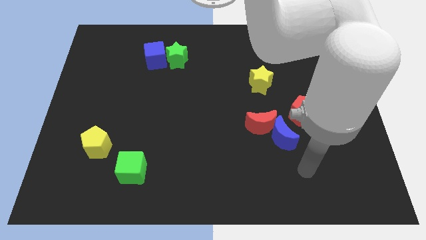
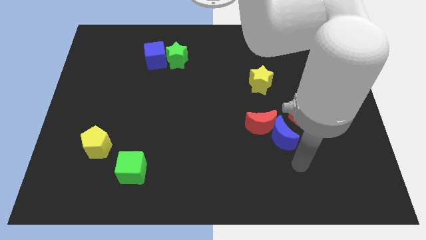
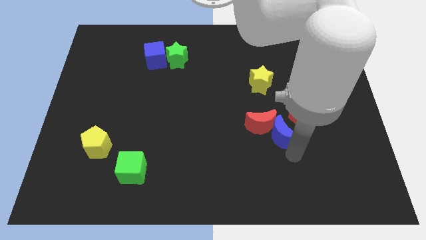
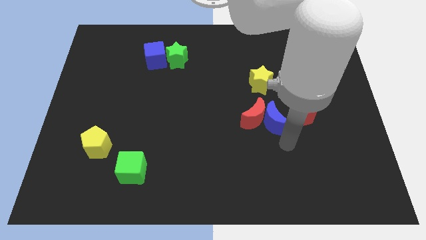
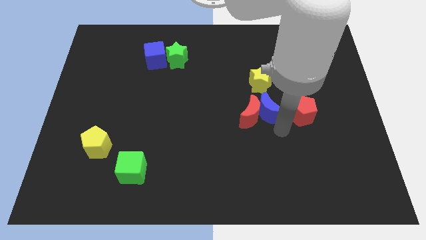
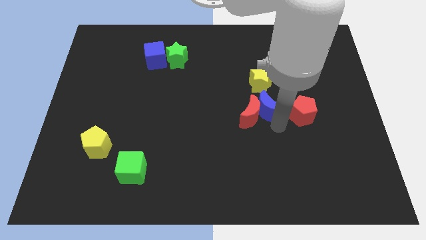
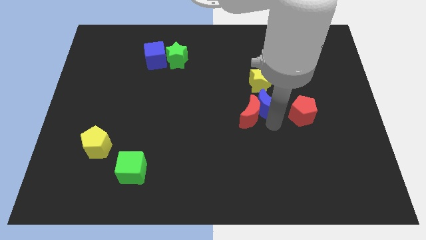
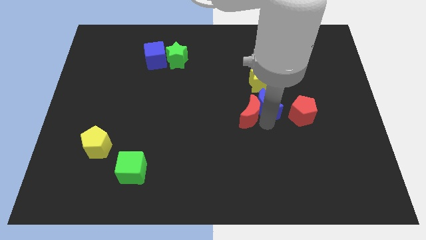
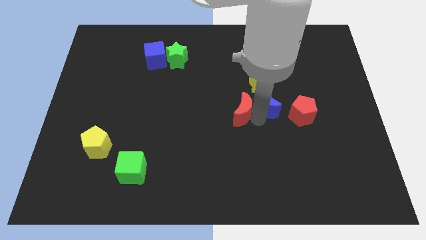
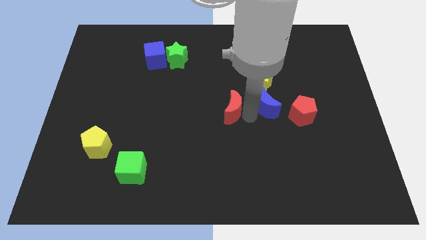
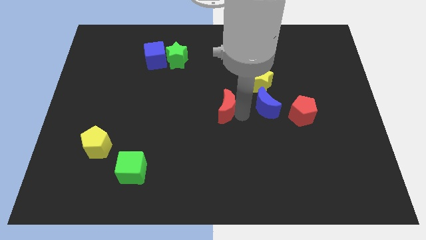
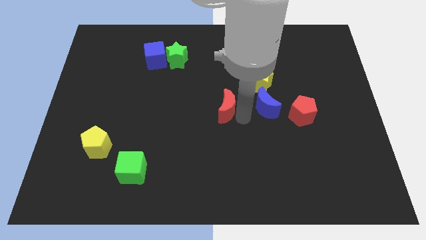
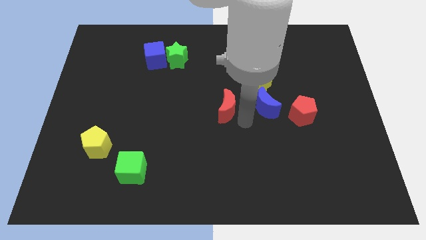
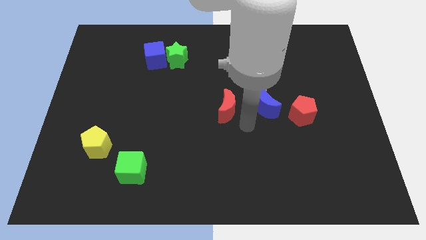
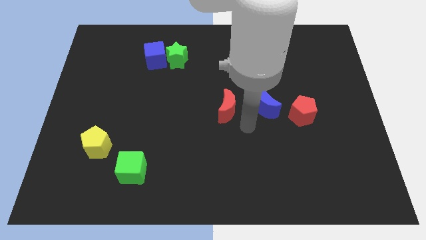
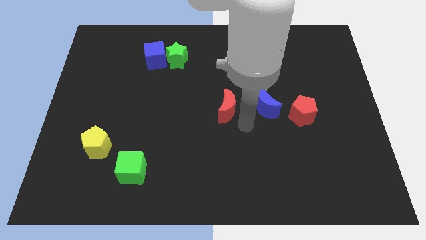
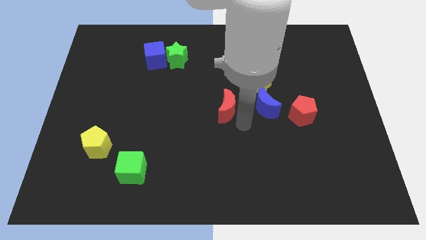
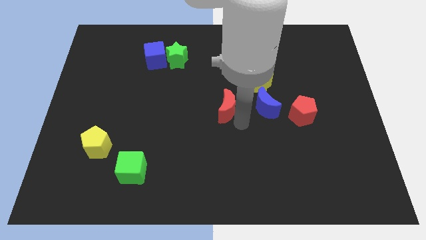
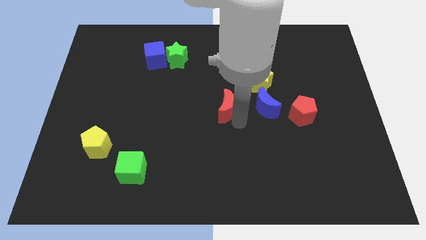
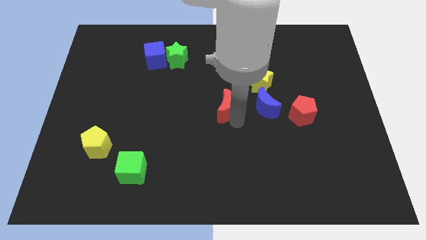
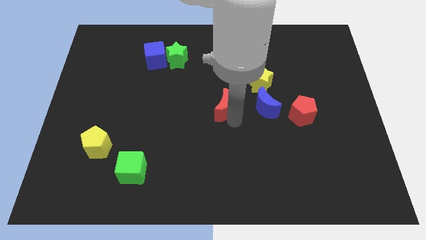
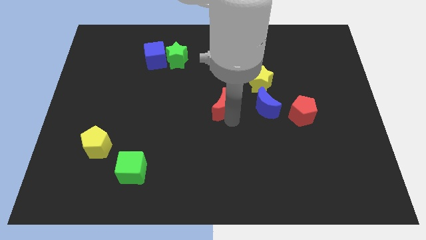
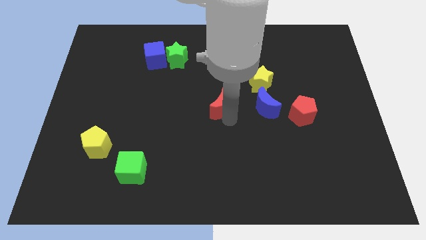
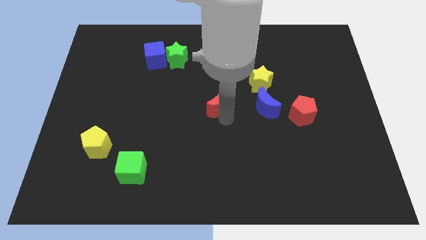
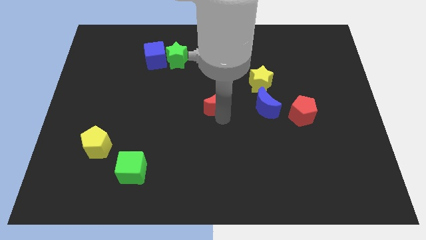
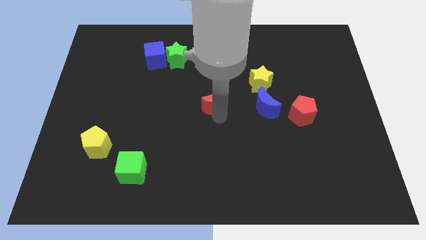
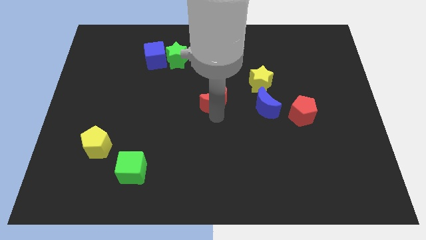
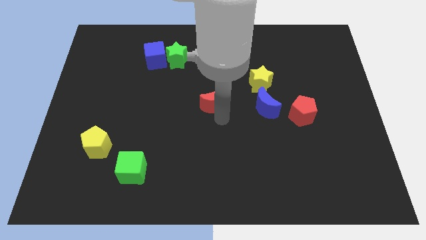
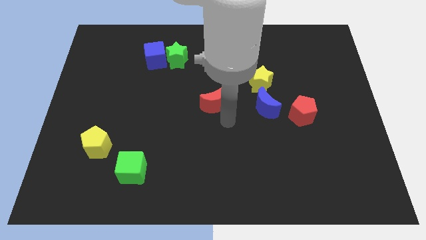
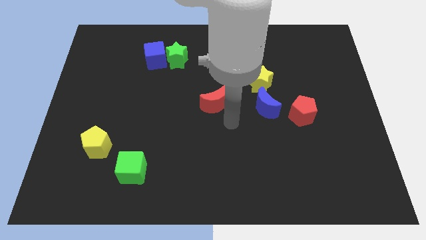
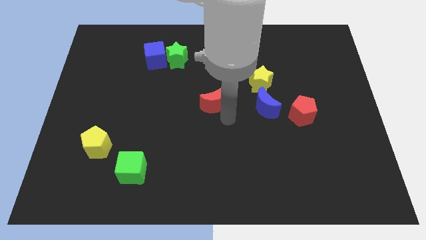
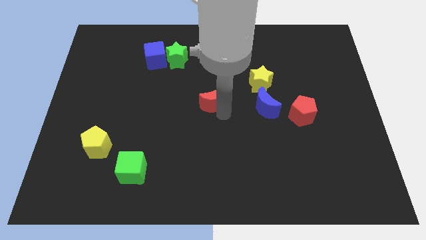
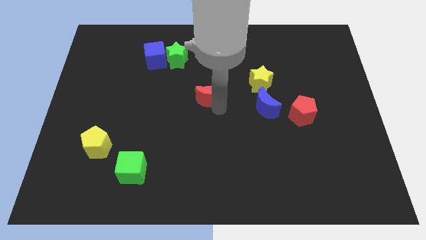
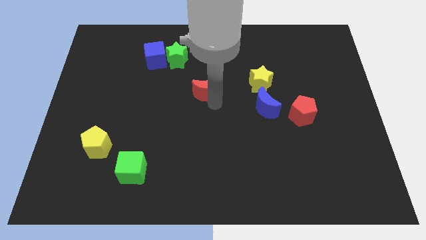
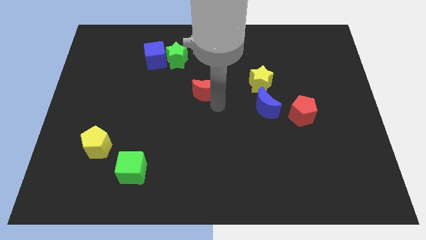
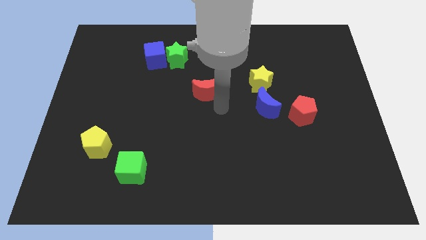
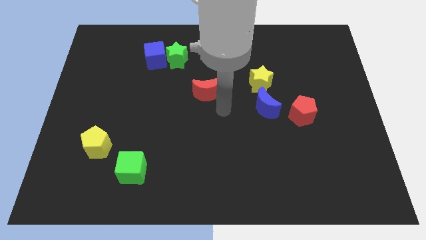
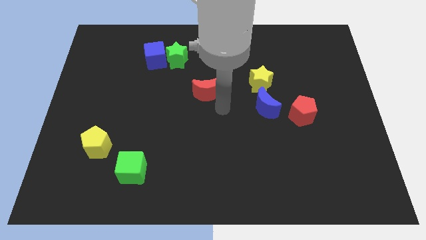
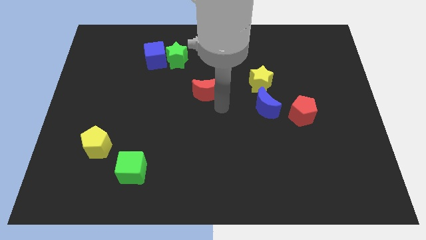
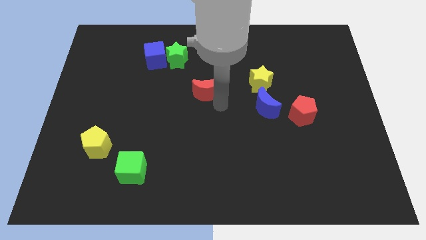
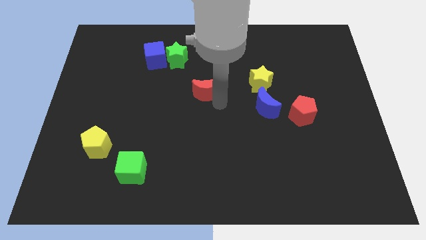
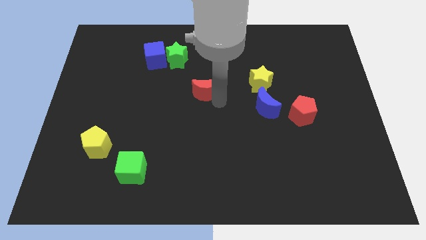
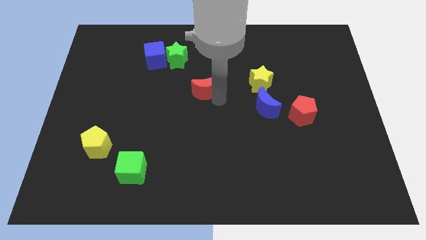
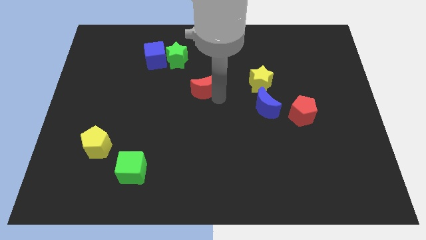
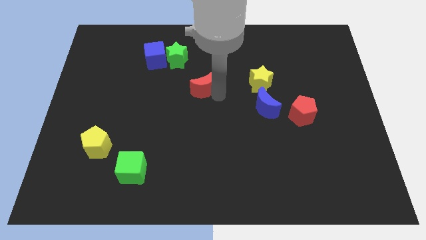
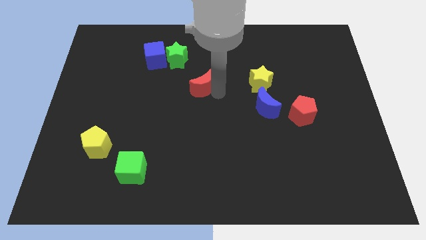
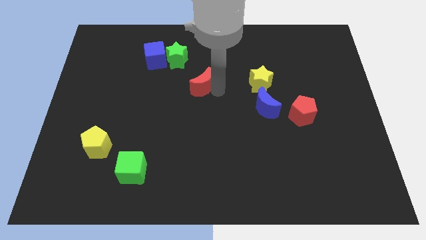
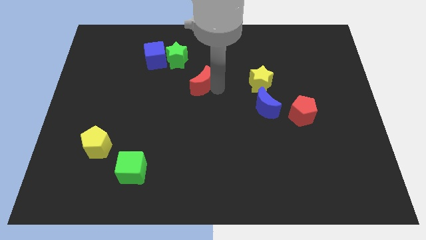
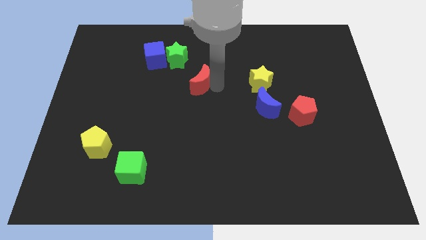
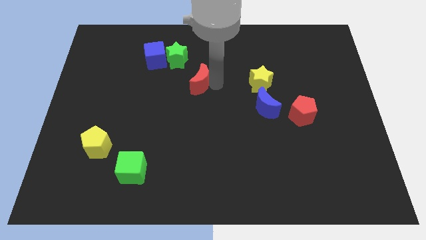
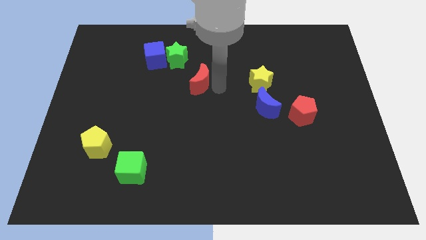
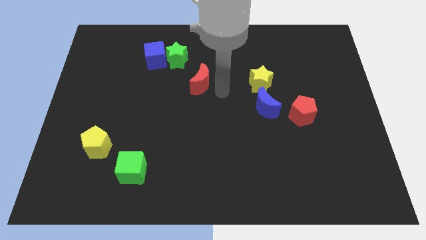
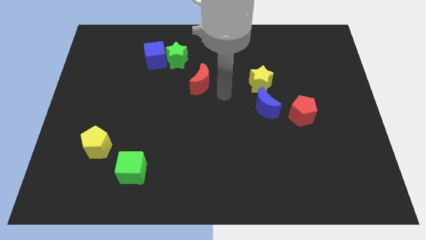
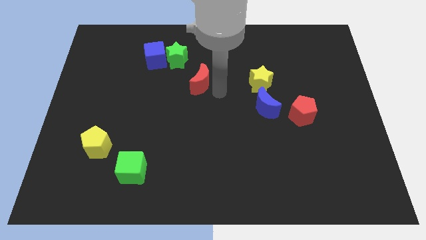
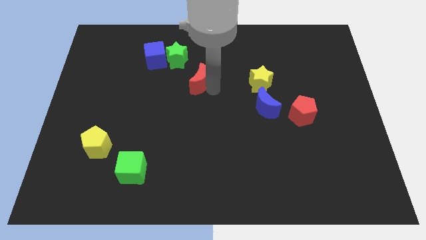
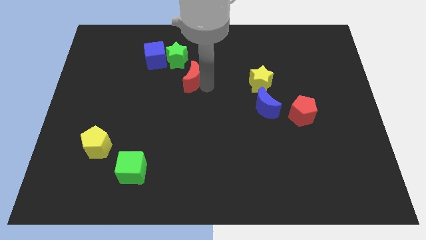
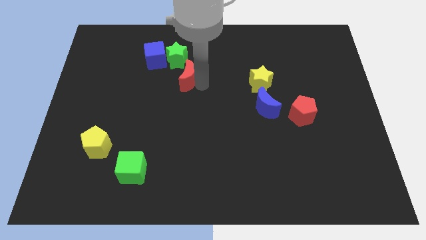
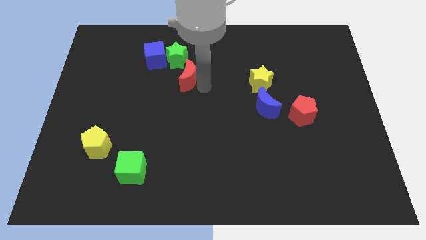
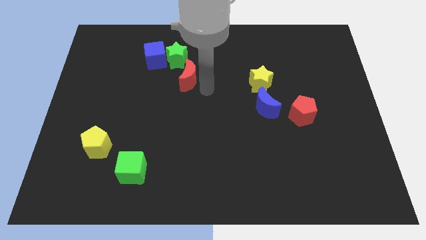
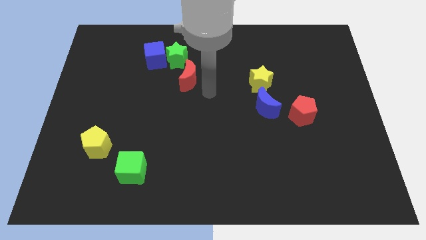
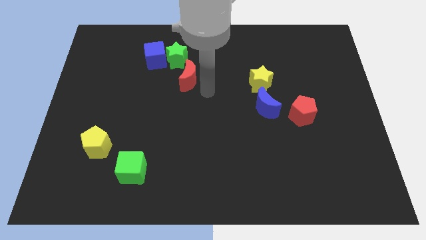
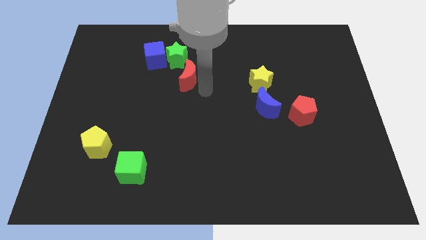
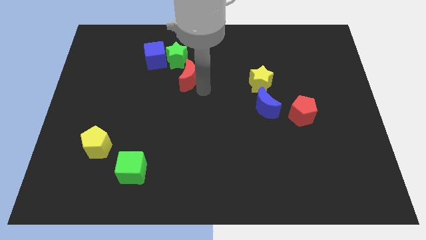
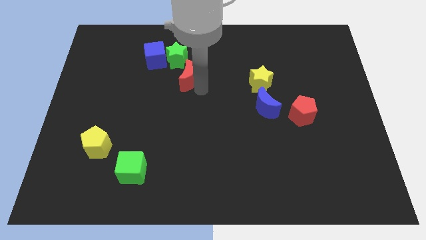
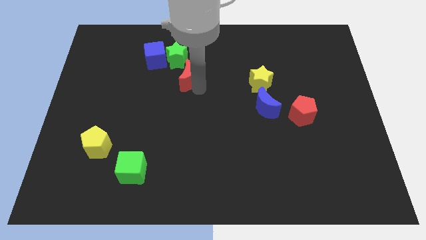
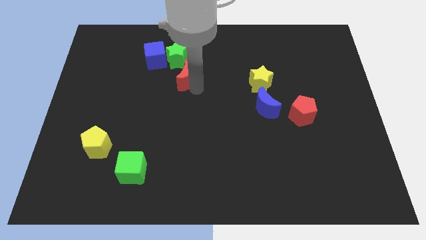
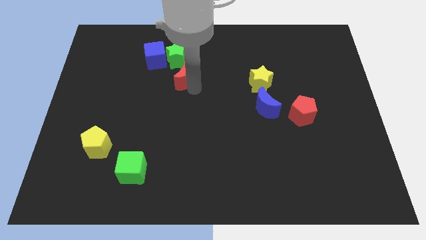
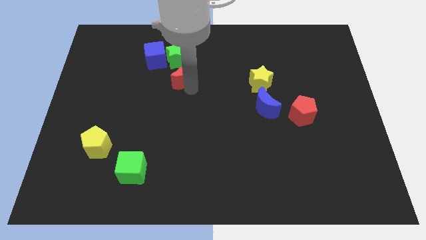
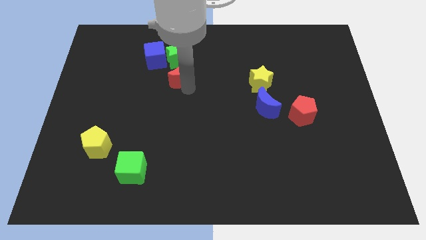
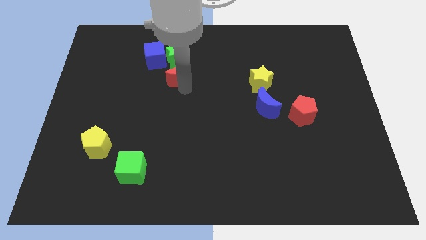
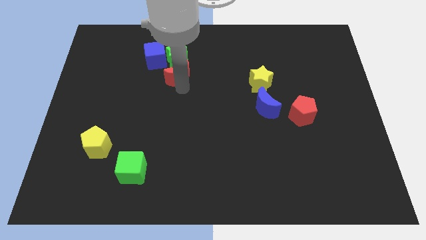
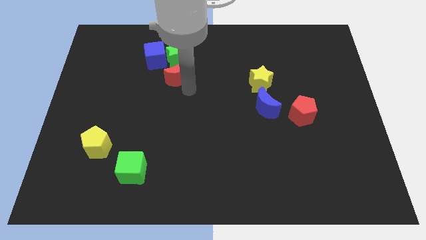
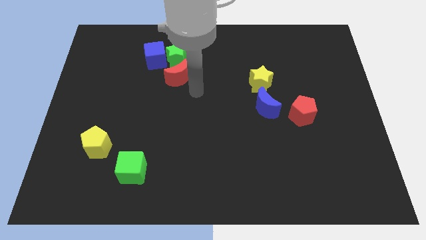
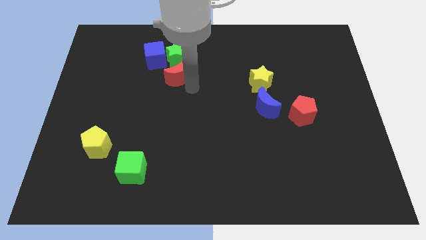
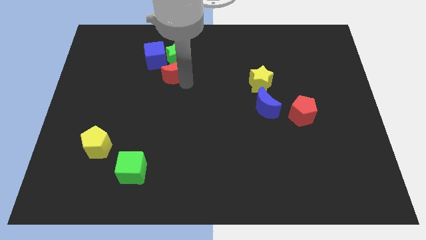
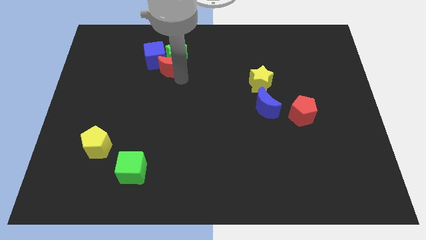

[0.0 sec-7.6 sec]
put the red moon to the blue cube

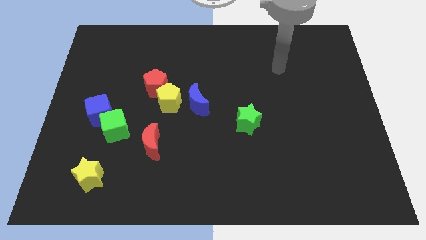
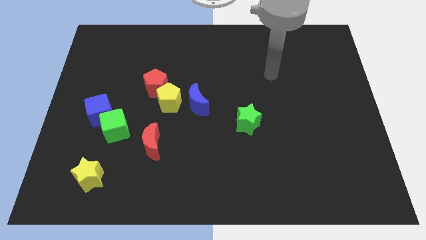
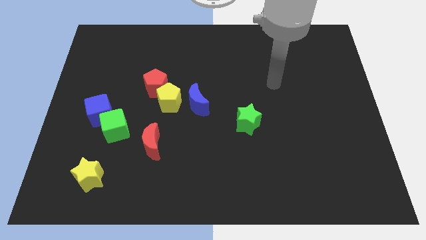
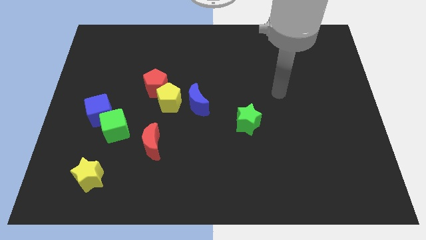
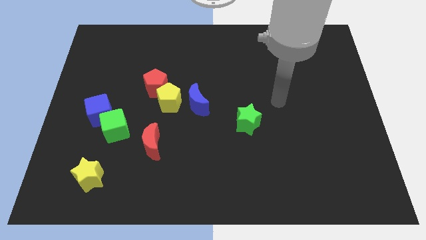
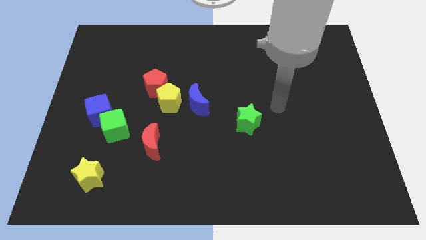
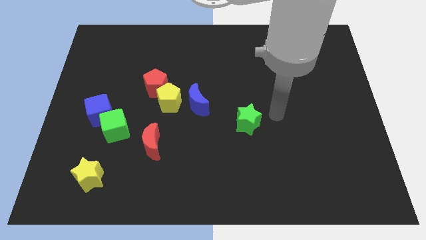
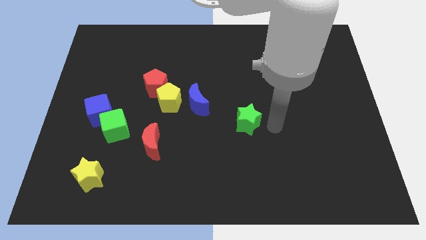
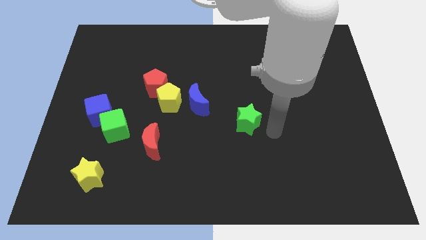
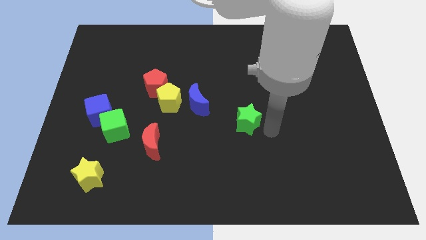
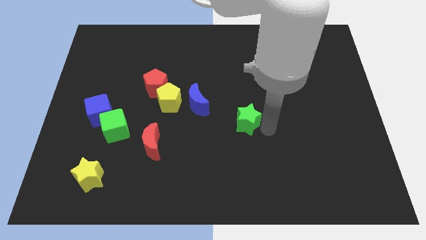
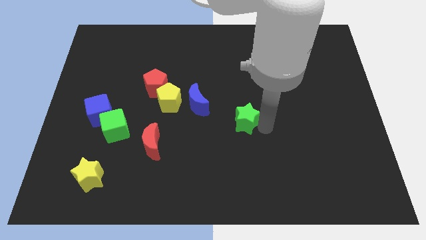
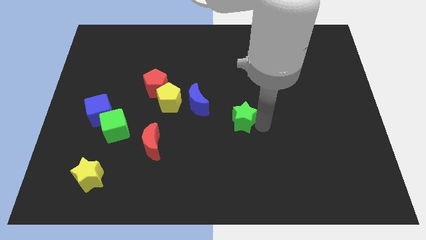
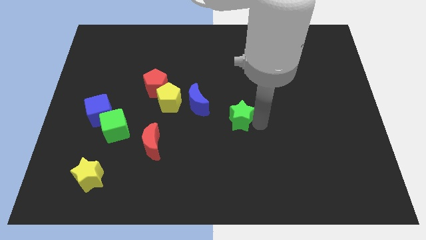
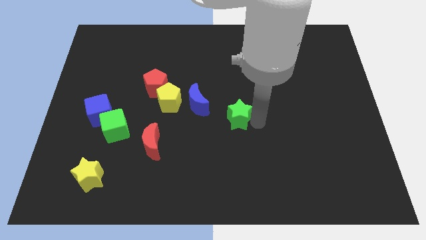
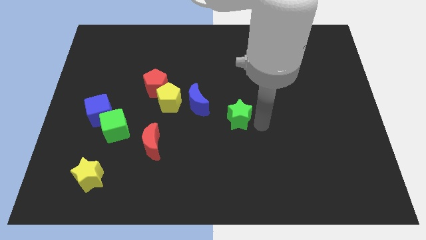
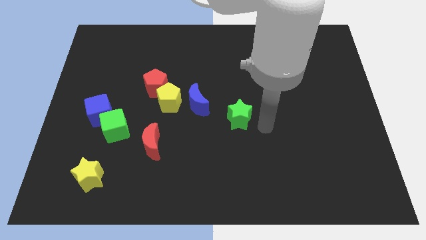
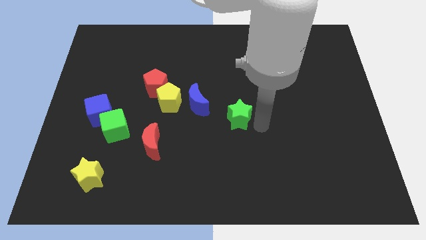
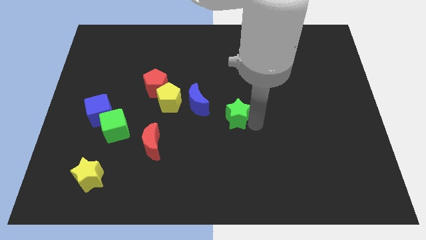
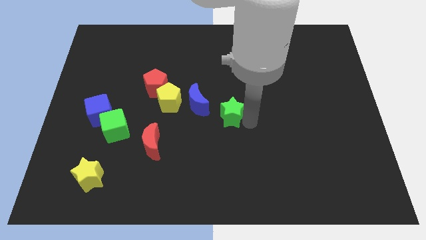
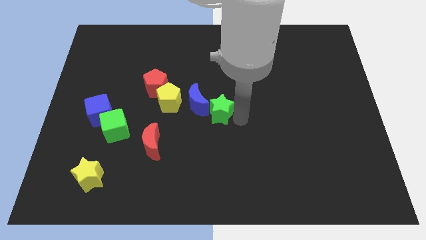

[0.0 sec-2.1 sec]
move the green star close to the blue moon
